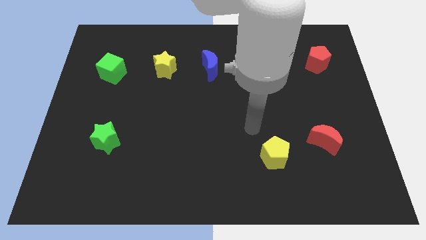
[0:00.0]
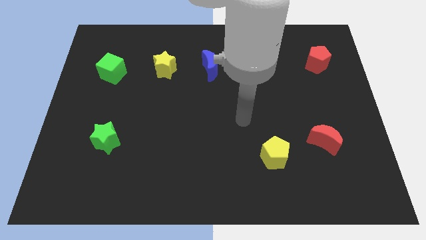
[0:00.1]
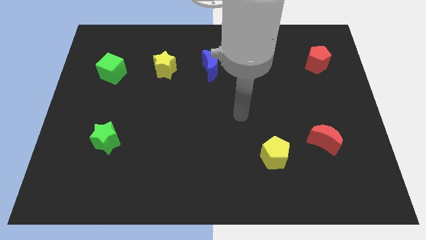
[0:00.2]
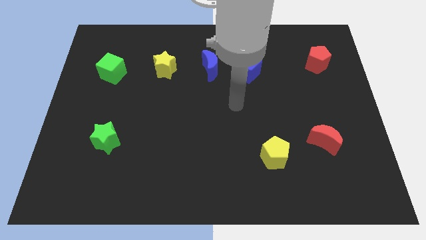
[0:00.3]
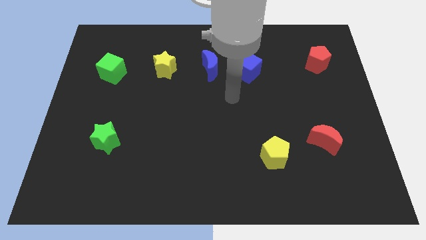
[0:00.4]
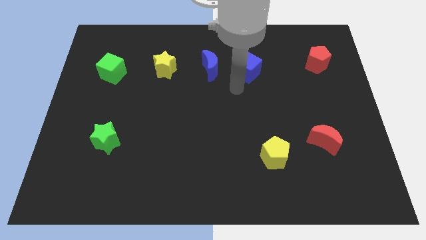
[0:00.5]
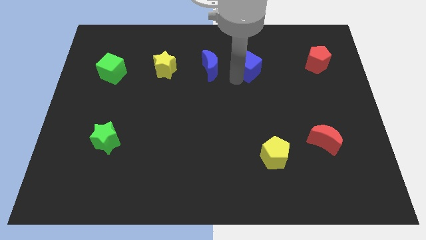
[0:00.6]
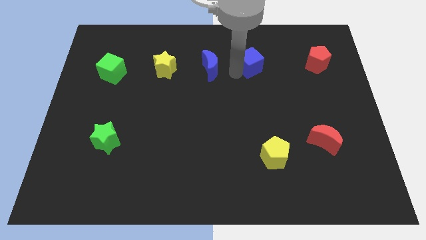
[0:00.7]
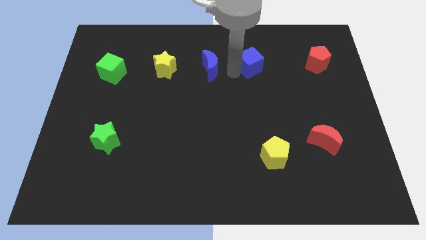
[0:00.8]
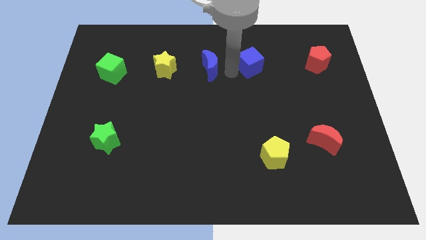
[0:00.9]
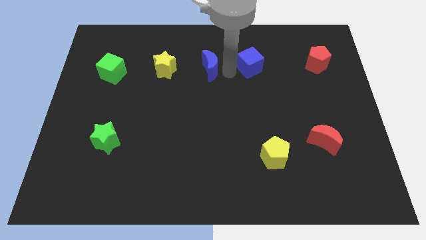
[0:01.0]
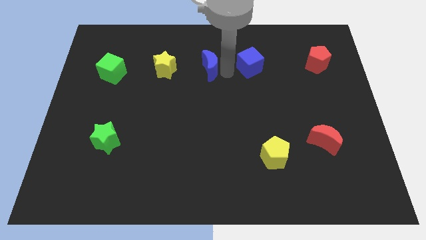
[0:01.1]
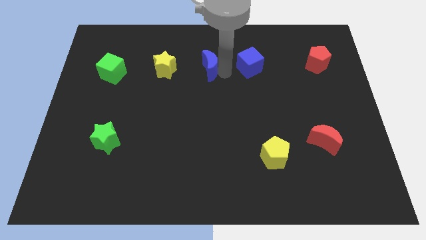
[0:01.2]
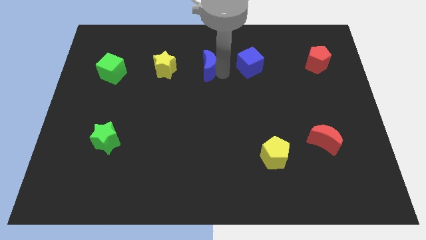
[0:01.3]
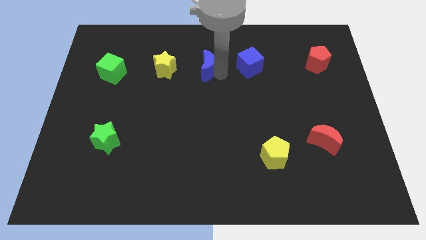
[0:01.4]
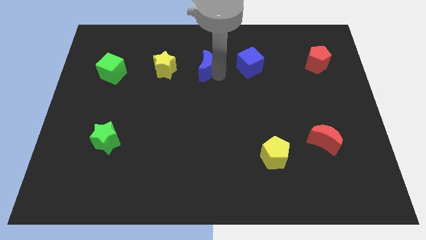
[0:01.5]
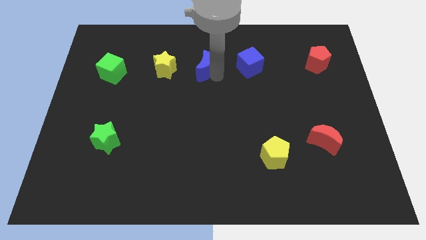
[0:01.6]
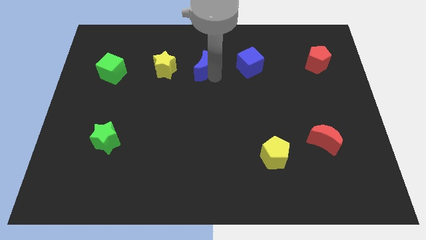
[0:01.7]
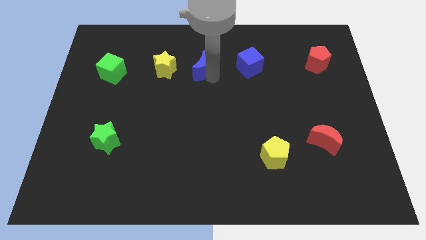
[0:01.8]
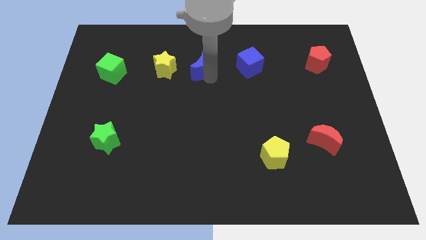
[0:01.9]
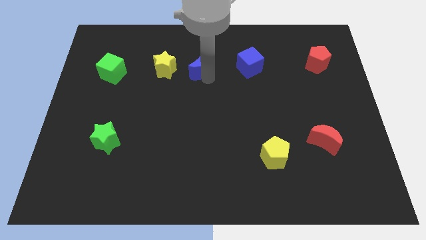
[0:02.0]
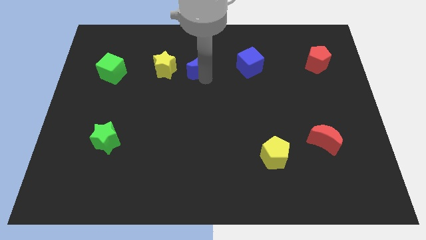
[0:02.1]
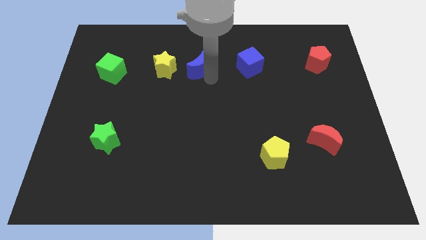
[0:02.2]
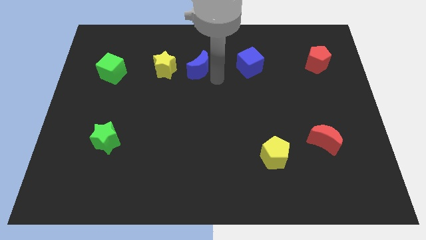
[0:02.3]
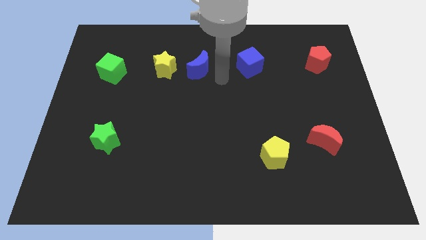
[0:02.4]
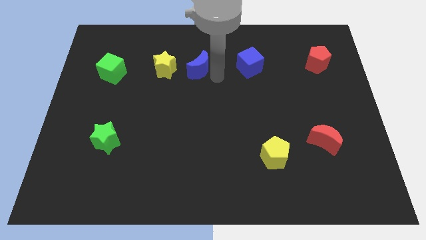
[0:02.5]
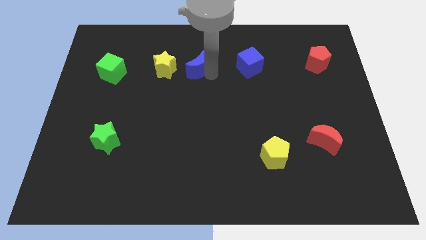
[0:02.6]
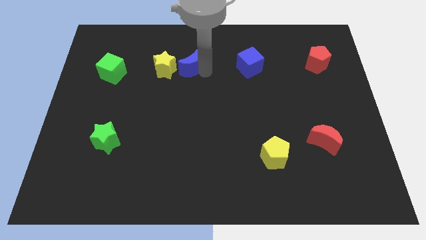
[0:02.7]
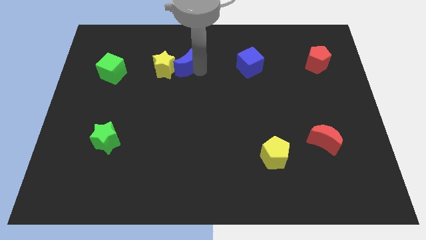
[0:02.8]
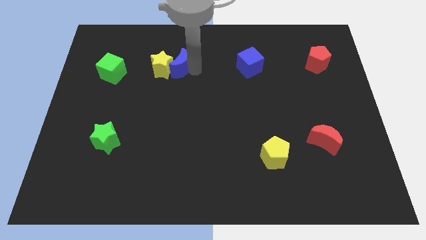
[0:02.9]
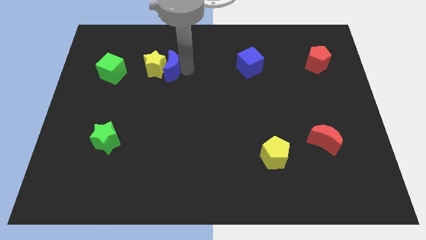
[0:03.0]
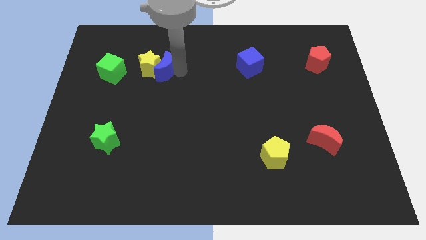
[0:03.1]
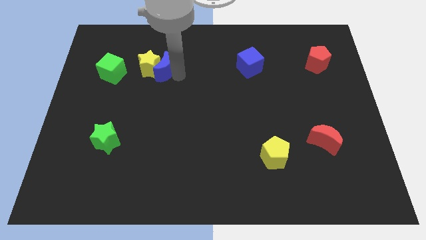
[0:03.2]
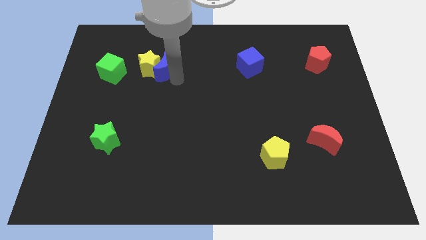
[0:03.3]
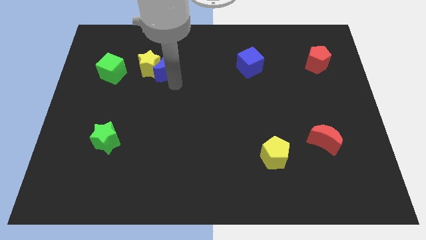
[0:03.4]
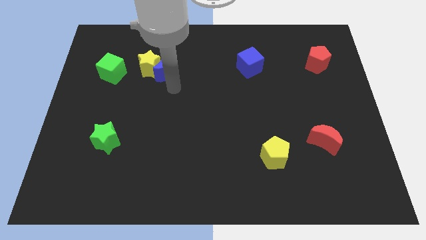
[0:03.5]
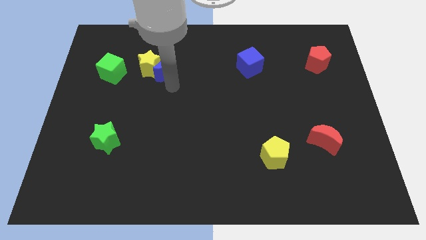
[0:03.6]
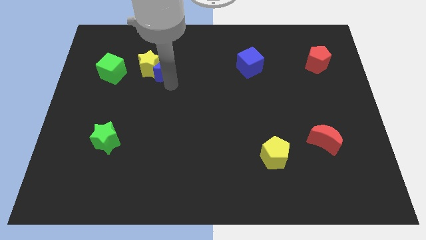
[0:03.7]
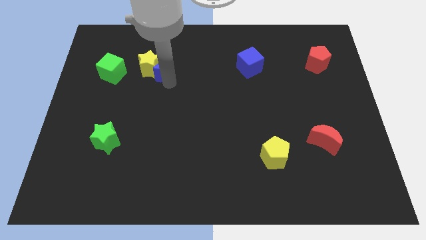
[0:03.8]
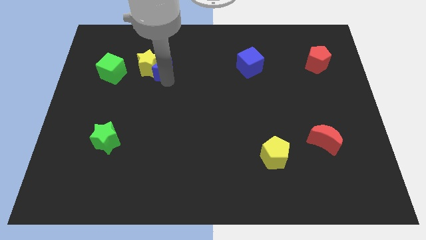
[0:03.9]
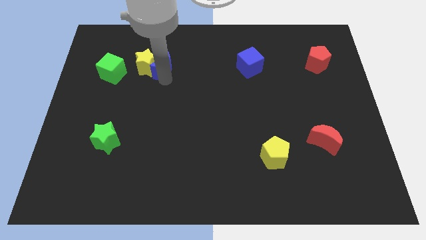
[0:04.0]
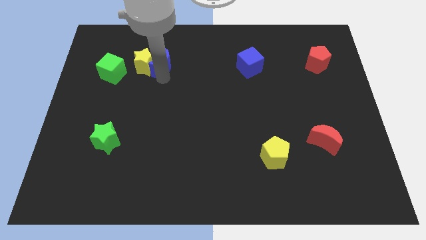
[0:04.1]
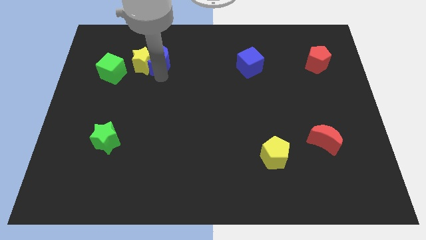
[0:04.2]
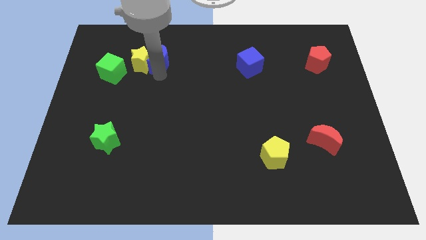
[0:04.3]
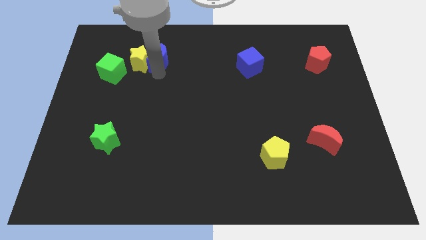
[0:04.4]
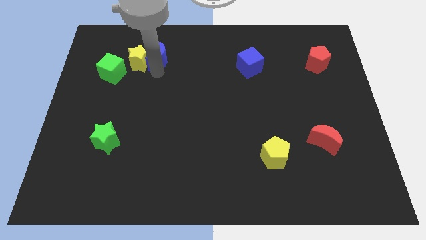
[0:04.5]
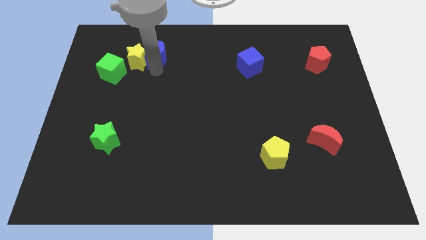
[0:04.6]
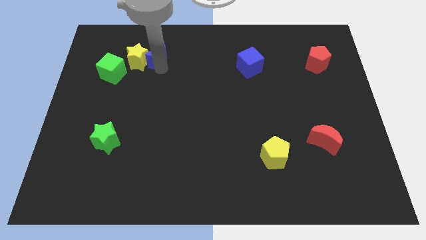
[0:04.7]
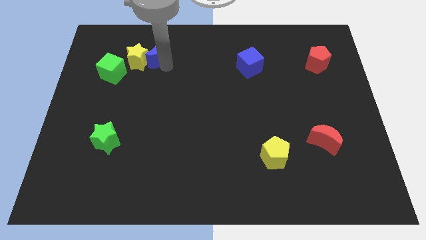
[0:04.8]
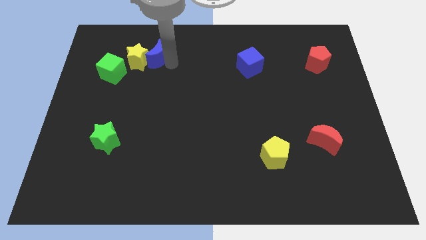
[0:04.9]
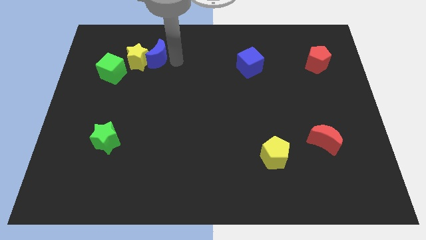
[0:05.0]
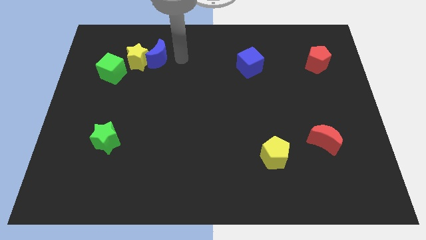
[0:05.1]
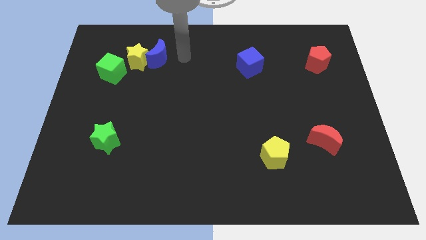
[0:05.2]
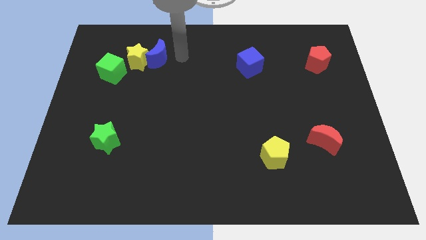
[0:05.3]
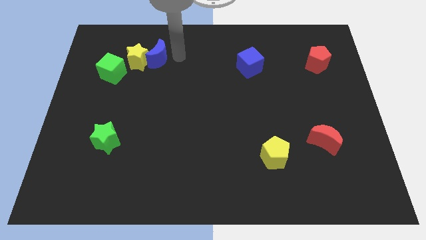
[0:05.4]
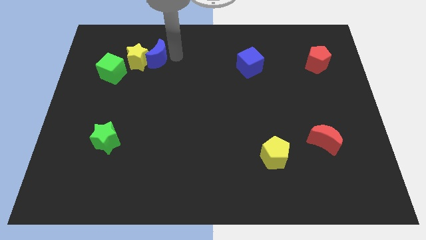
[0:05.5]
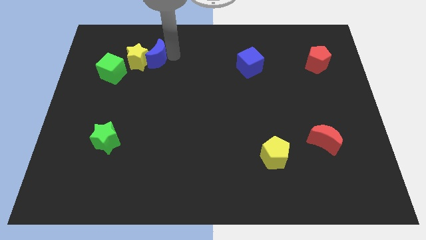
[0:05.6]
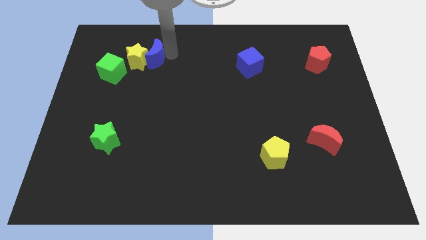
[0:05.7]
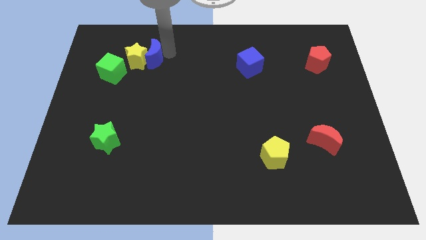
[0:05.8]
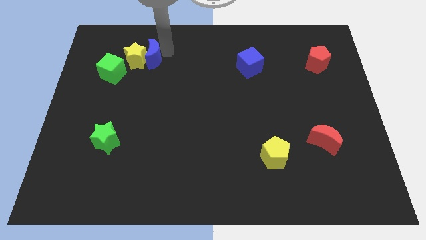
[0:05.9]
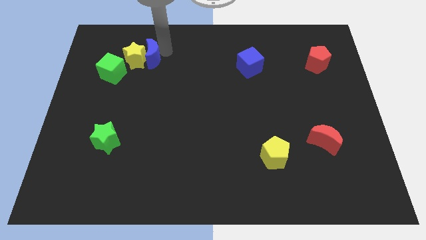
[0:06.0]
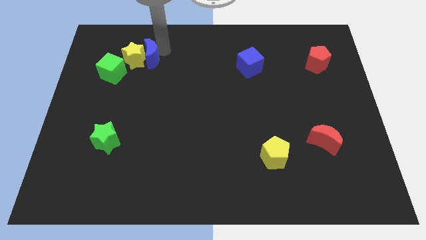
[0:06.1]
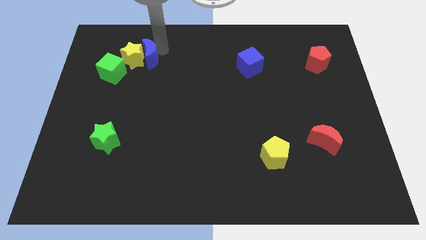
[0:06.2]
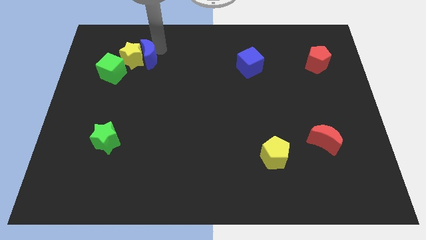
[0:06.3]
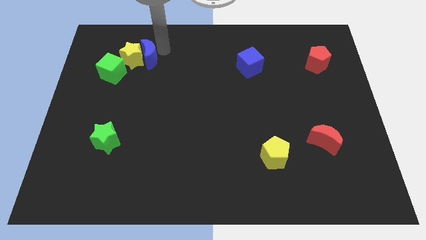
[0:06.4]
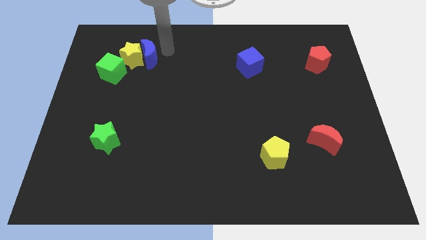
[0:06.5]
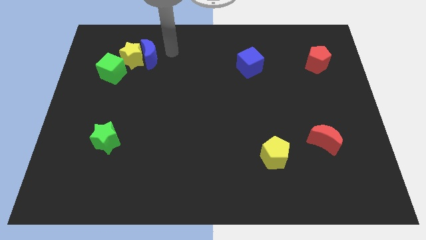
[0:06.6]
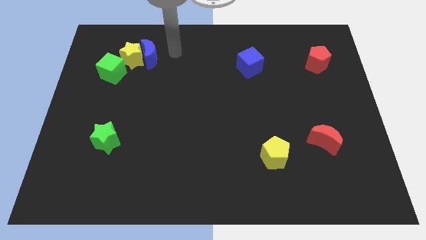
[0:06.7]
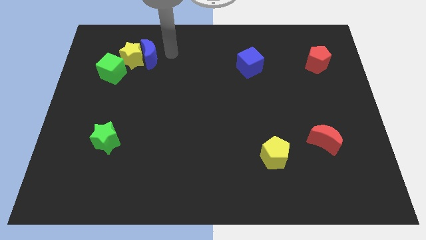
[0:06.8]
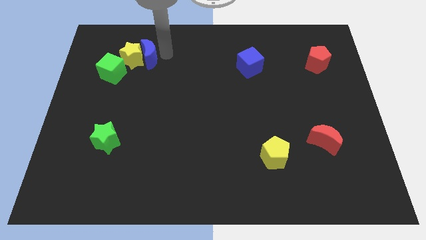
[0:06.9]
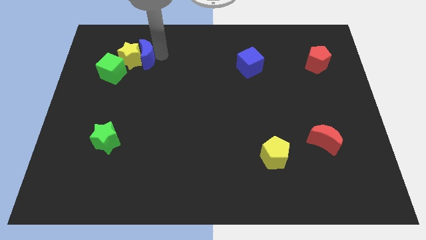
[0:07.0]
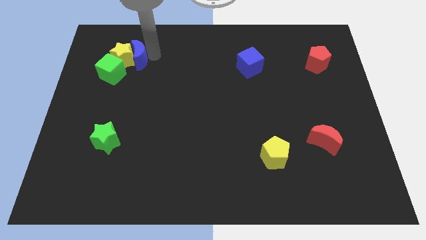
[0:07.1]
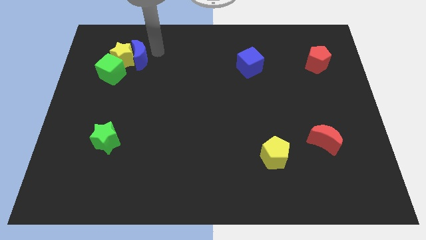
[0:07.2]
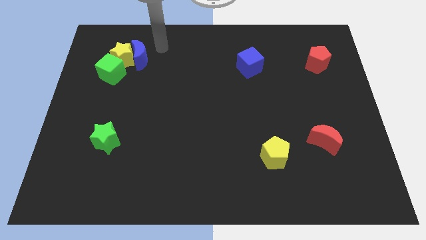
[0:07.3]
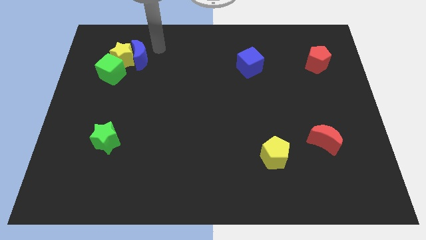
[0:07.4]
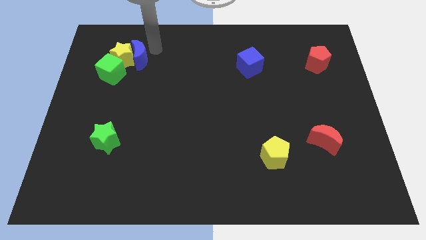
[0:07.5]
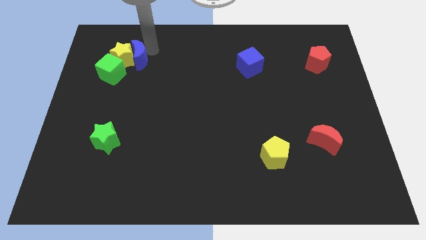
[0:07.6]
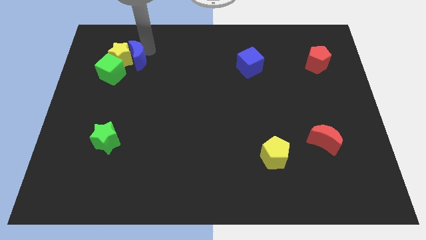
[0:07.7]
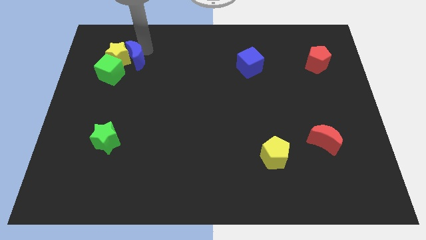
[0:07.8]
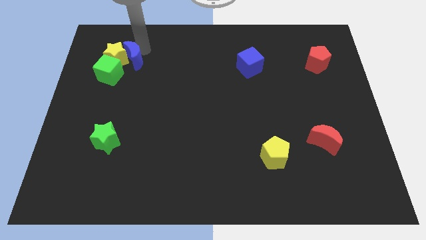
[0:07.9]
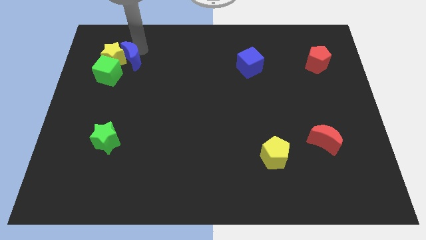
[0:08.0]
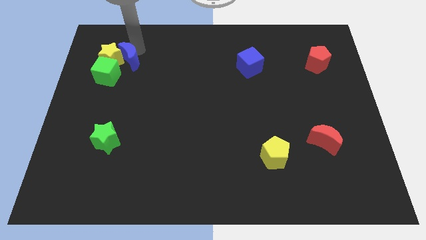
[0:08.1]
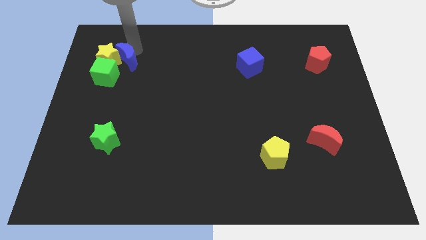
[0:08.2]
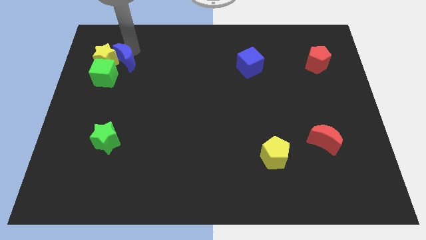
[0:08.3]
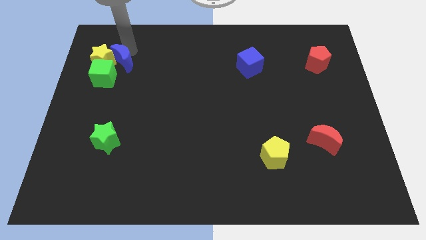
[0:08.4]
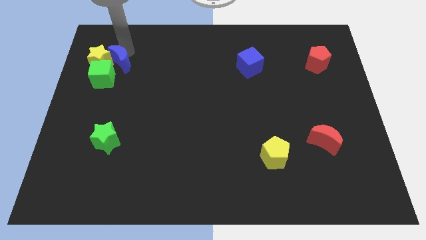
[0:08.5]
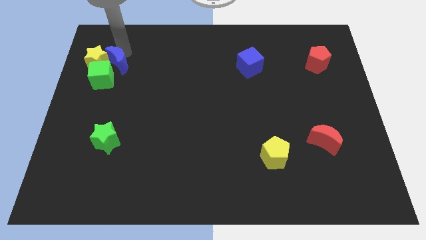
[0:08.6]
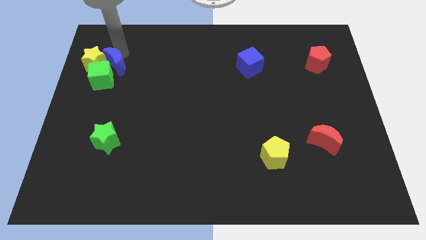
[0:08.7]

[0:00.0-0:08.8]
move the blue moon to the green cube
